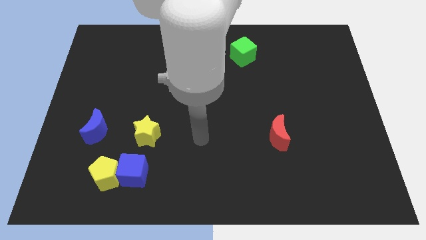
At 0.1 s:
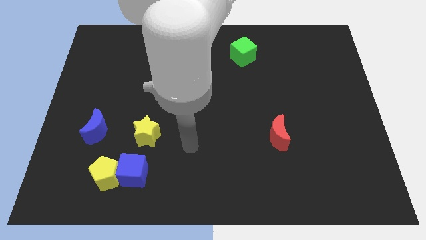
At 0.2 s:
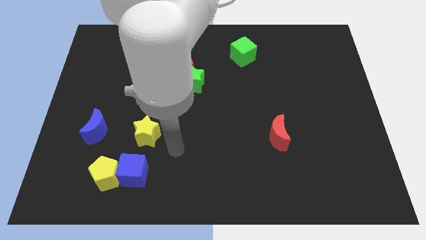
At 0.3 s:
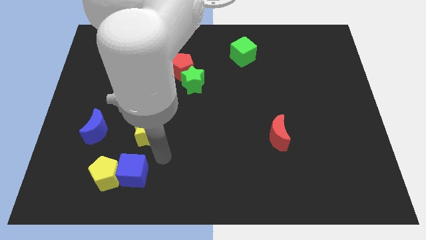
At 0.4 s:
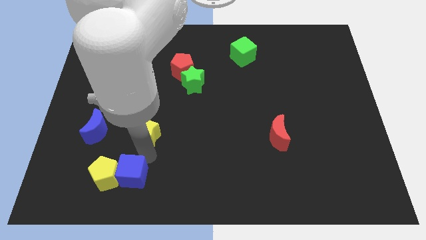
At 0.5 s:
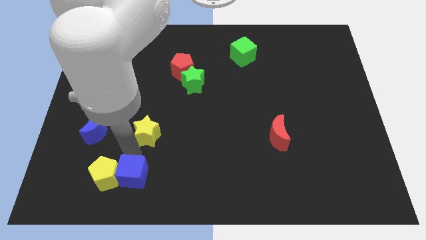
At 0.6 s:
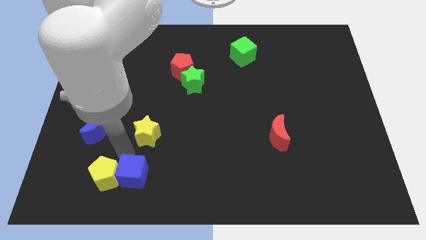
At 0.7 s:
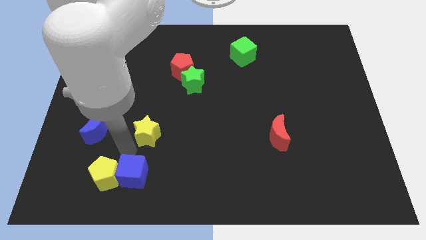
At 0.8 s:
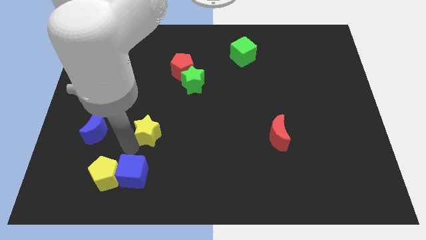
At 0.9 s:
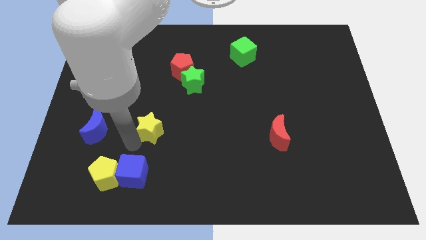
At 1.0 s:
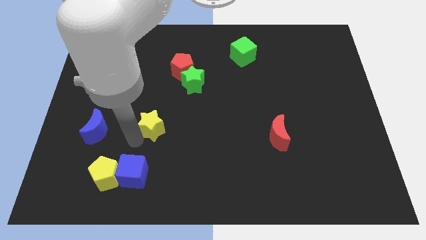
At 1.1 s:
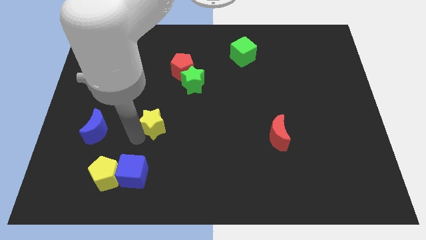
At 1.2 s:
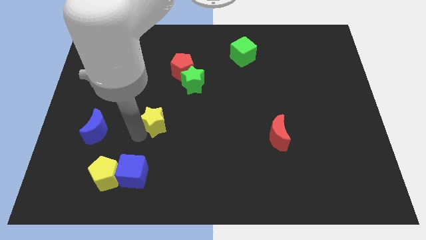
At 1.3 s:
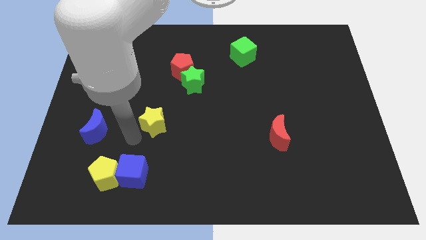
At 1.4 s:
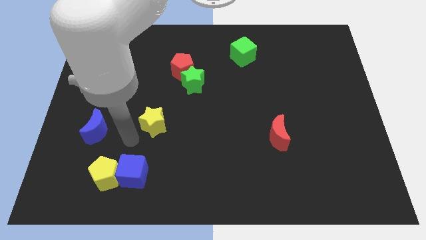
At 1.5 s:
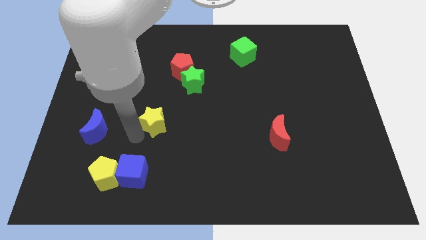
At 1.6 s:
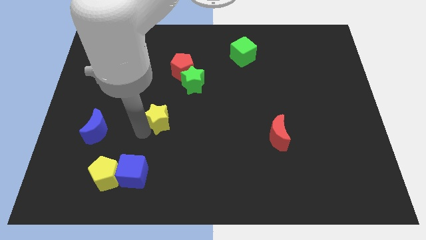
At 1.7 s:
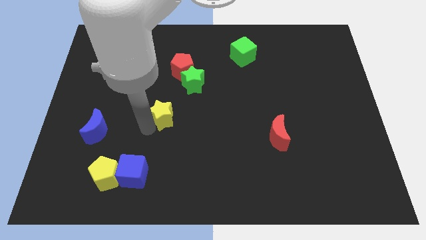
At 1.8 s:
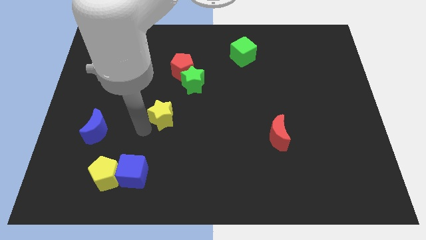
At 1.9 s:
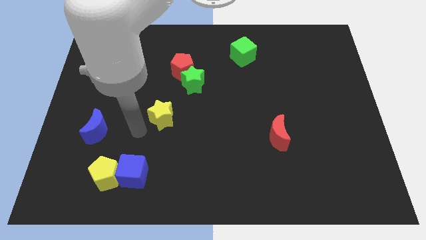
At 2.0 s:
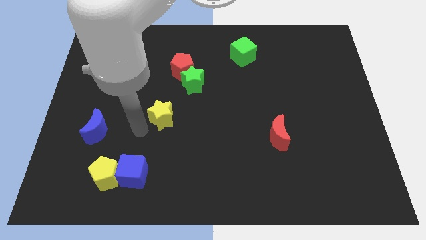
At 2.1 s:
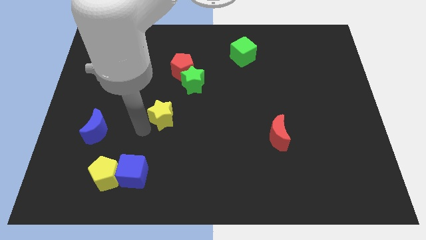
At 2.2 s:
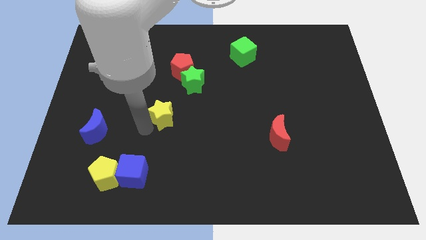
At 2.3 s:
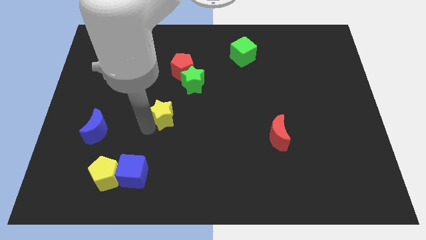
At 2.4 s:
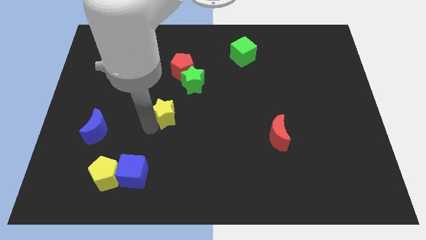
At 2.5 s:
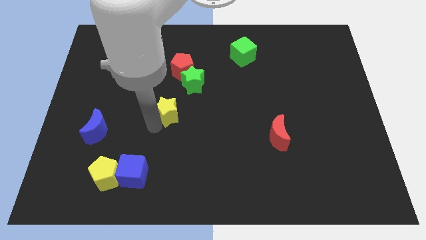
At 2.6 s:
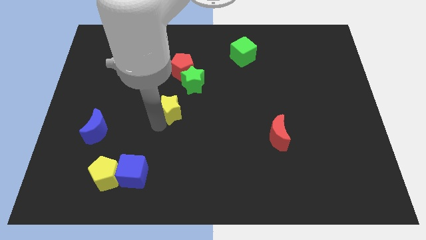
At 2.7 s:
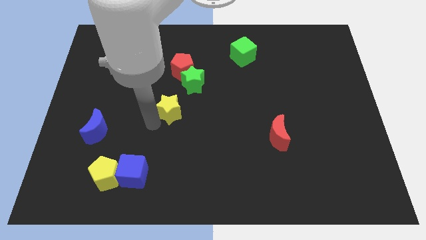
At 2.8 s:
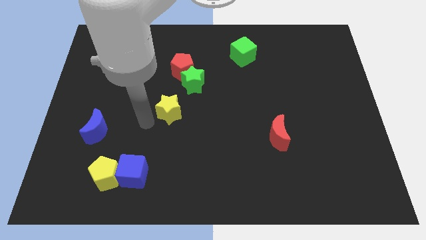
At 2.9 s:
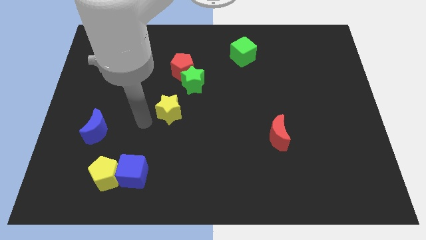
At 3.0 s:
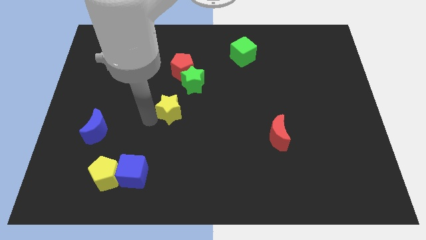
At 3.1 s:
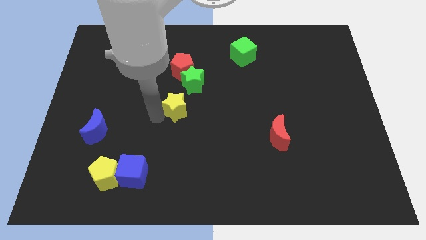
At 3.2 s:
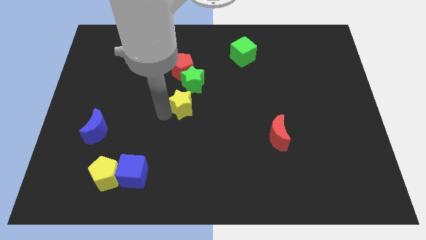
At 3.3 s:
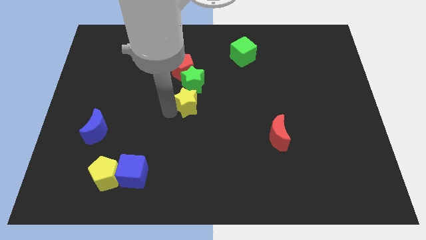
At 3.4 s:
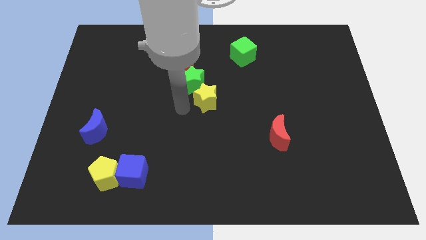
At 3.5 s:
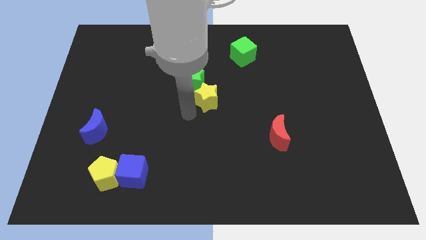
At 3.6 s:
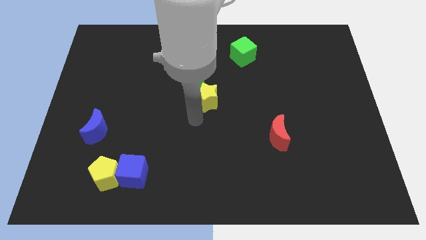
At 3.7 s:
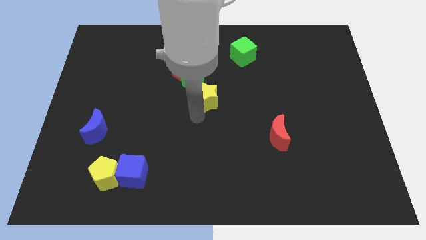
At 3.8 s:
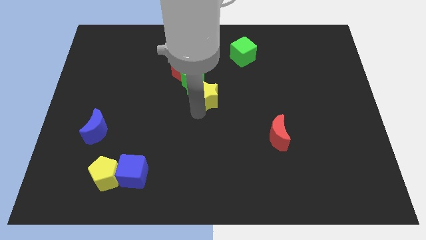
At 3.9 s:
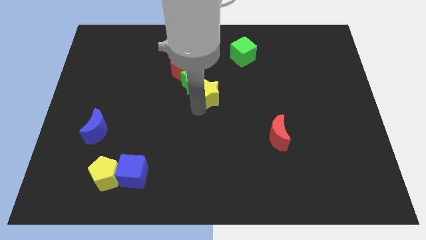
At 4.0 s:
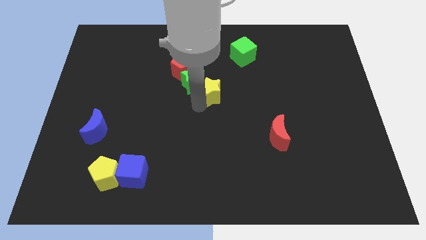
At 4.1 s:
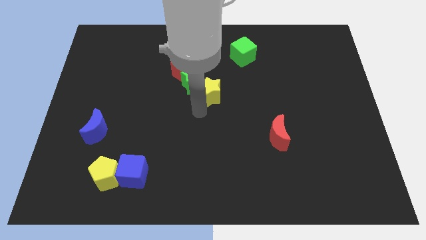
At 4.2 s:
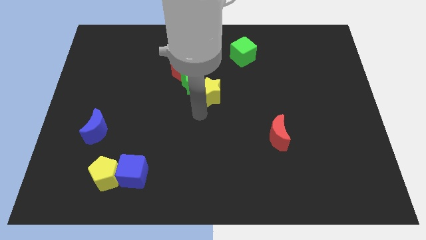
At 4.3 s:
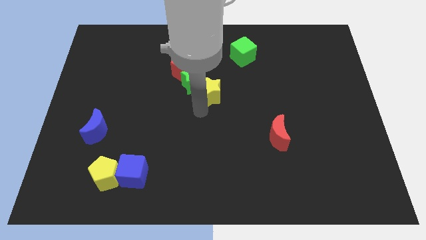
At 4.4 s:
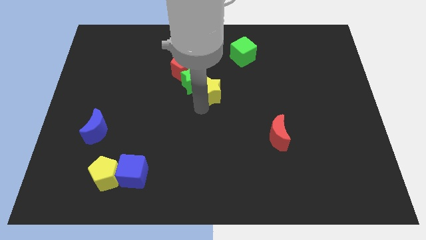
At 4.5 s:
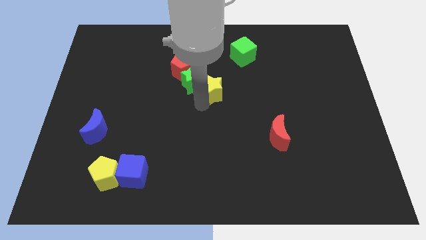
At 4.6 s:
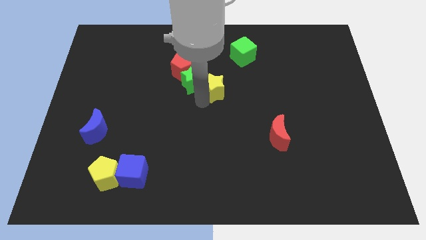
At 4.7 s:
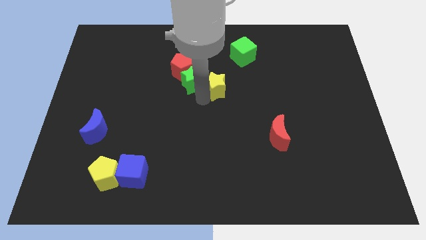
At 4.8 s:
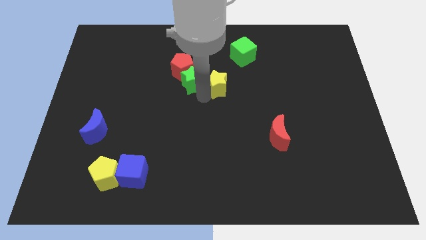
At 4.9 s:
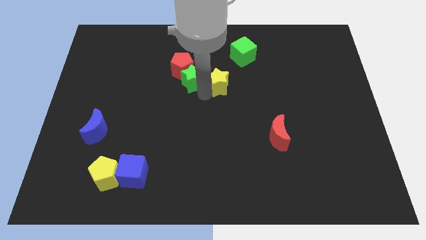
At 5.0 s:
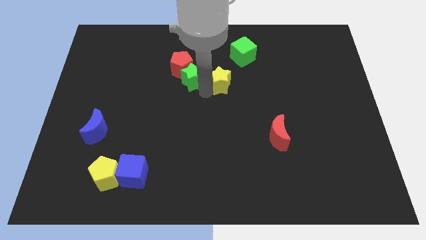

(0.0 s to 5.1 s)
slide the yellow star to the right side of the red pentagon

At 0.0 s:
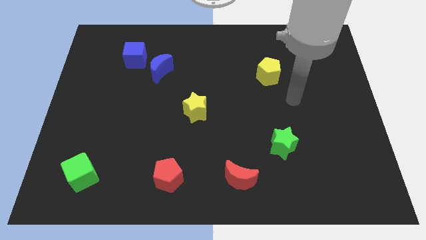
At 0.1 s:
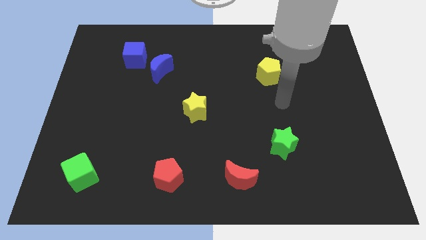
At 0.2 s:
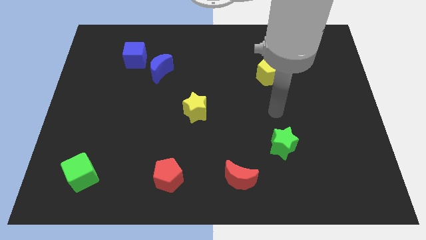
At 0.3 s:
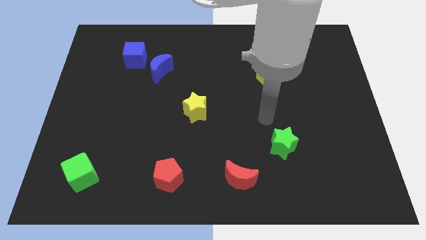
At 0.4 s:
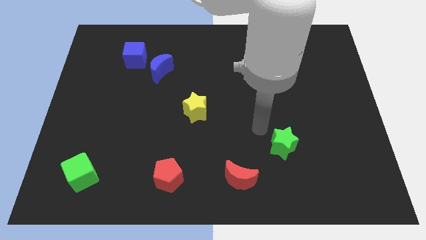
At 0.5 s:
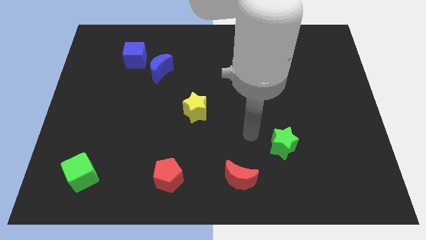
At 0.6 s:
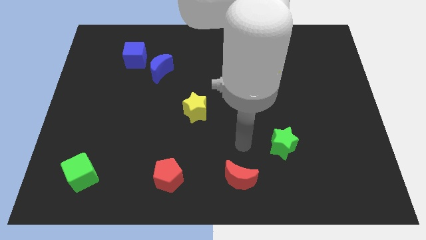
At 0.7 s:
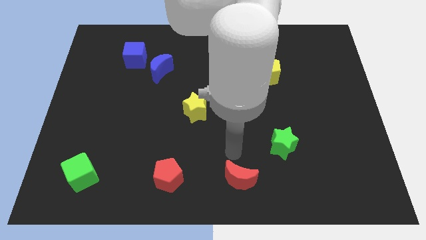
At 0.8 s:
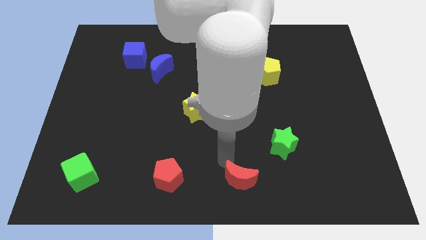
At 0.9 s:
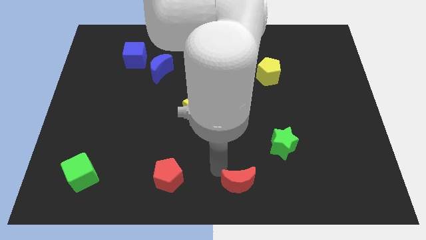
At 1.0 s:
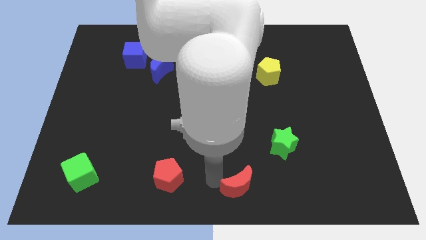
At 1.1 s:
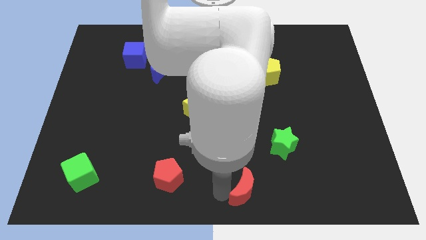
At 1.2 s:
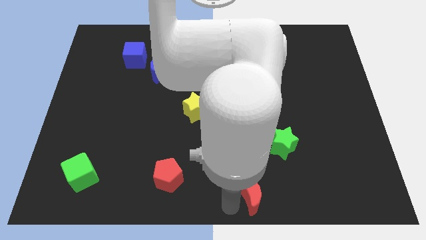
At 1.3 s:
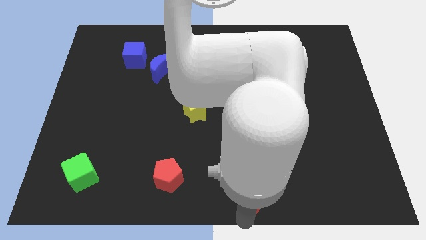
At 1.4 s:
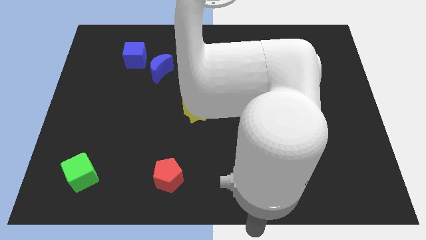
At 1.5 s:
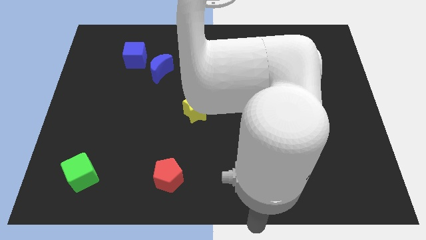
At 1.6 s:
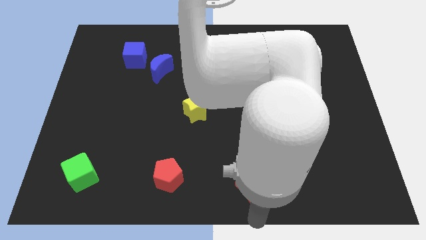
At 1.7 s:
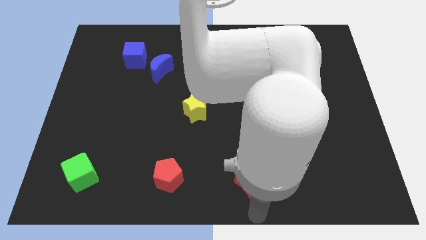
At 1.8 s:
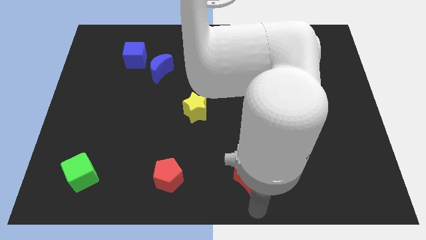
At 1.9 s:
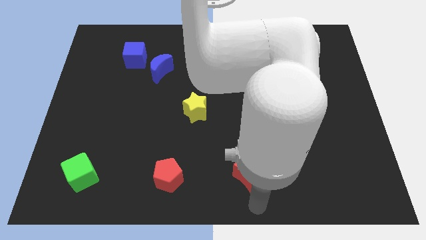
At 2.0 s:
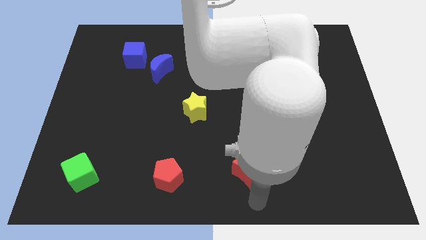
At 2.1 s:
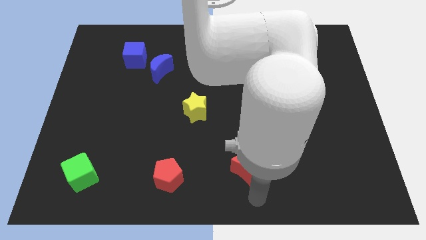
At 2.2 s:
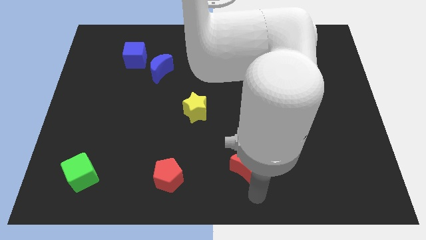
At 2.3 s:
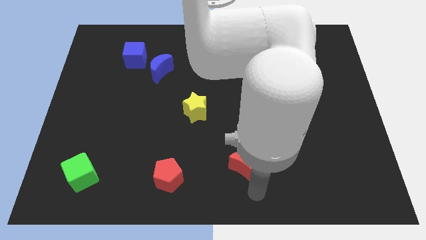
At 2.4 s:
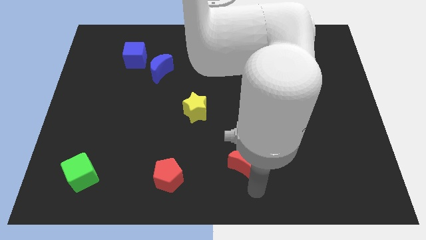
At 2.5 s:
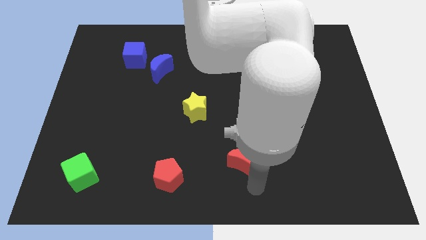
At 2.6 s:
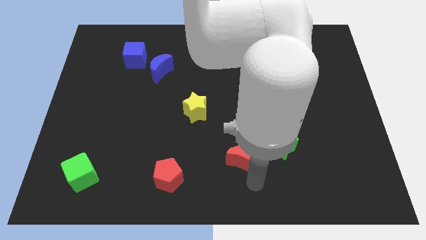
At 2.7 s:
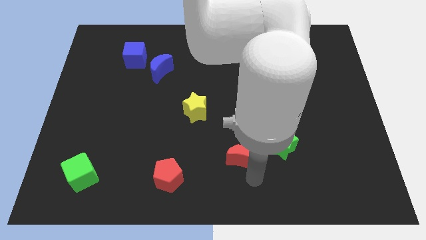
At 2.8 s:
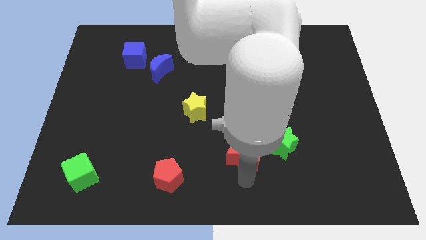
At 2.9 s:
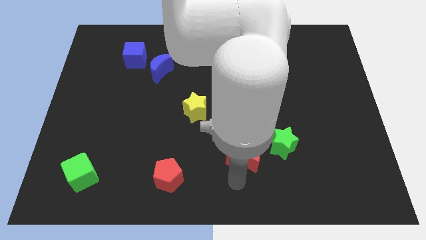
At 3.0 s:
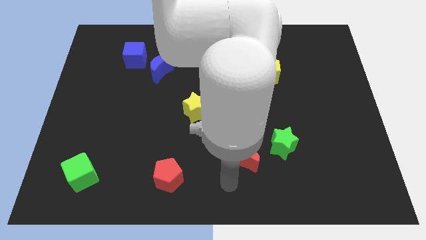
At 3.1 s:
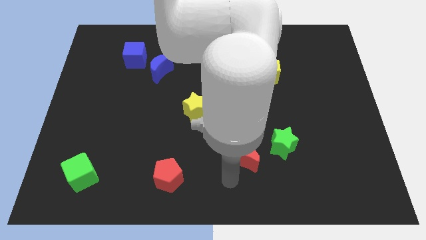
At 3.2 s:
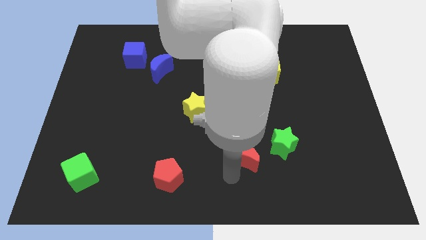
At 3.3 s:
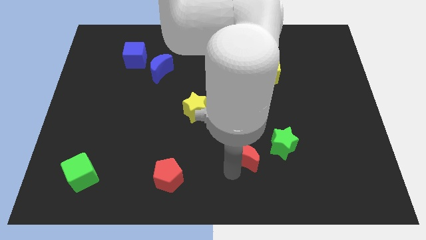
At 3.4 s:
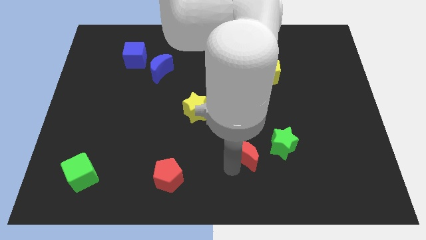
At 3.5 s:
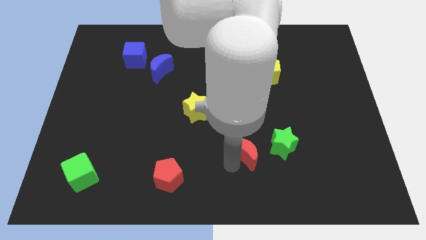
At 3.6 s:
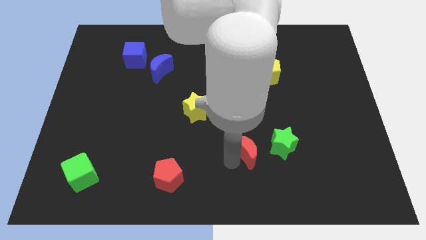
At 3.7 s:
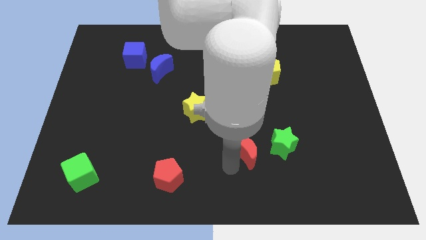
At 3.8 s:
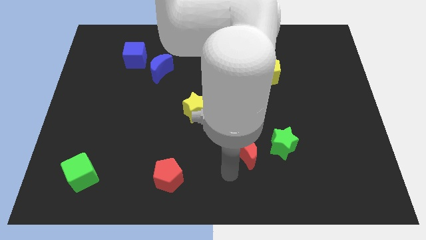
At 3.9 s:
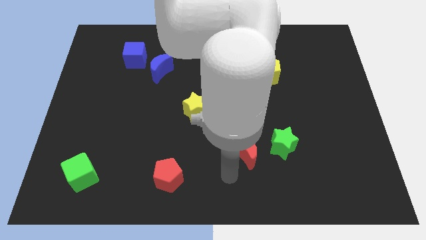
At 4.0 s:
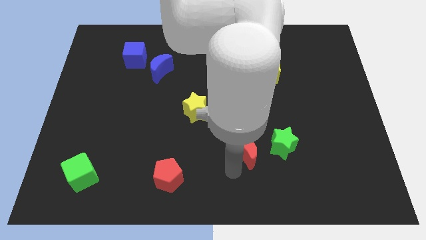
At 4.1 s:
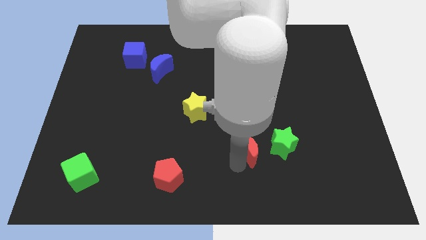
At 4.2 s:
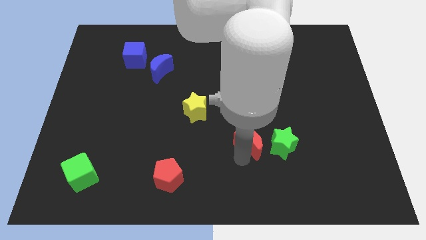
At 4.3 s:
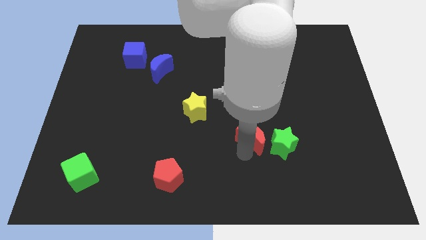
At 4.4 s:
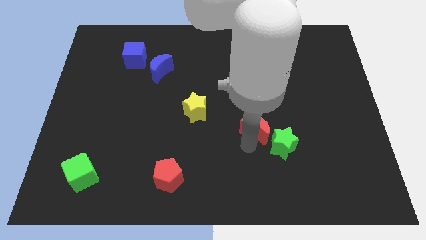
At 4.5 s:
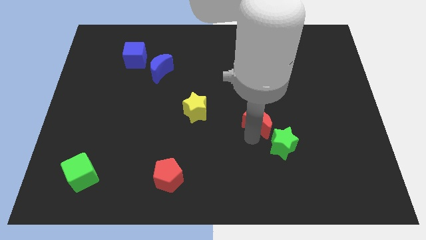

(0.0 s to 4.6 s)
slide the red moon to the top of the green star
